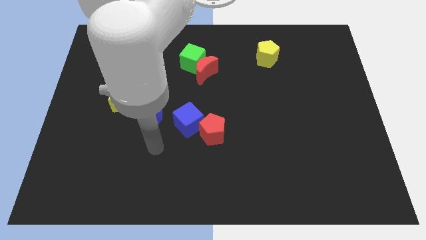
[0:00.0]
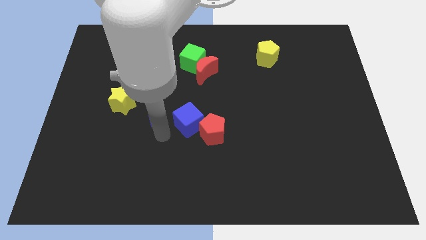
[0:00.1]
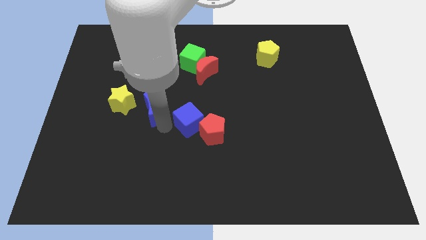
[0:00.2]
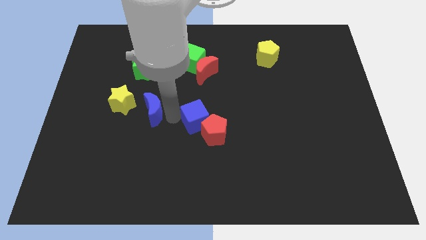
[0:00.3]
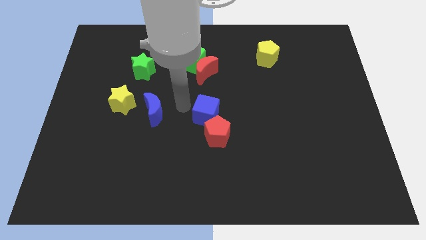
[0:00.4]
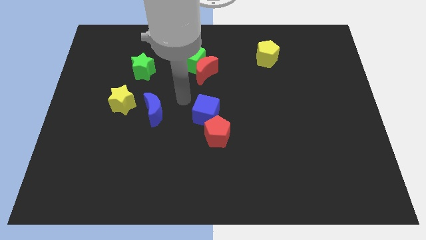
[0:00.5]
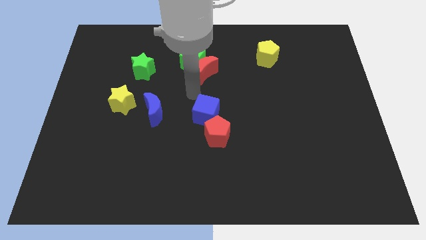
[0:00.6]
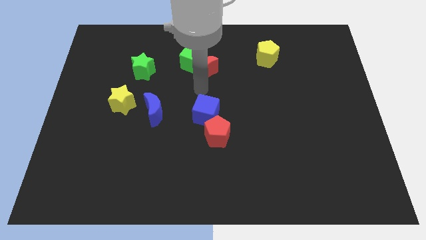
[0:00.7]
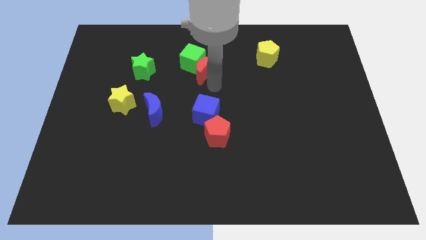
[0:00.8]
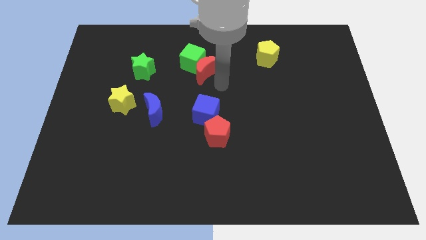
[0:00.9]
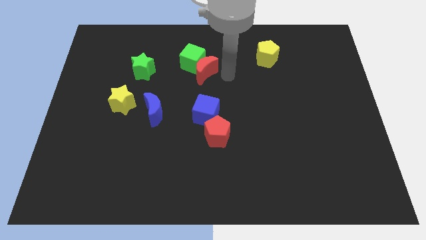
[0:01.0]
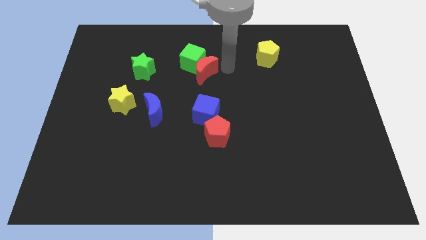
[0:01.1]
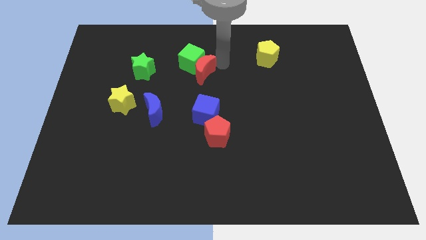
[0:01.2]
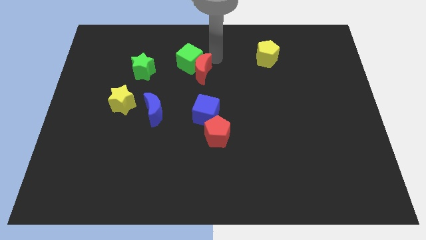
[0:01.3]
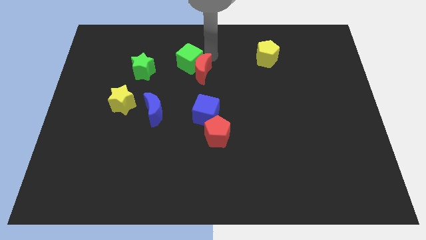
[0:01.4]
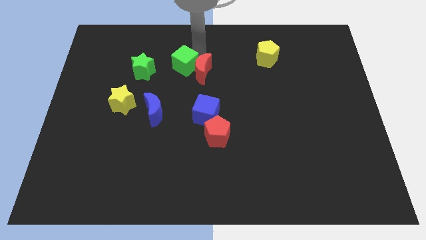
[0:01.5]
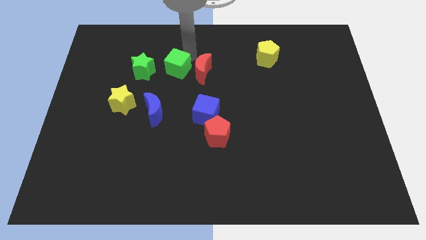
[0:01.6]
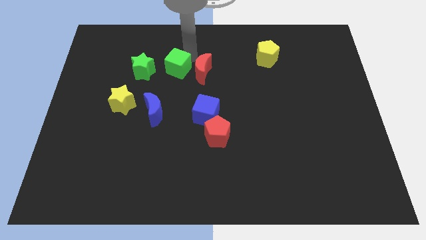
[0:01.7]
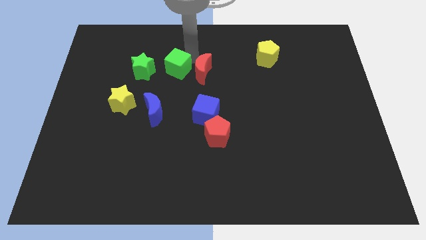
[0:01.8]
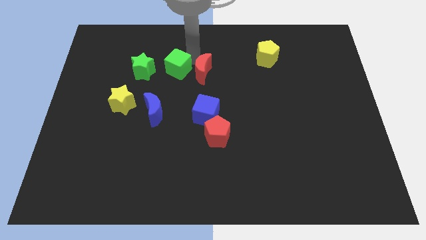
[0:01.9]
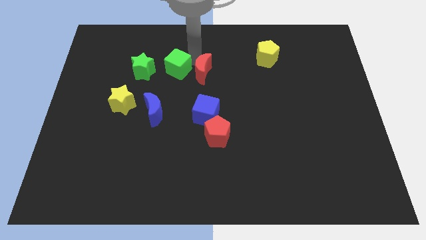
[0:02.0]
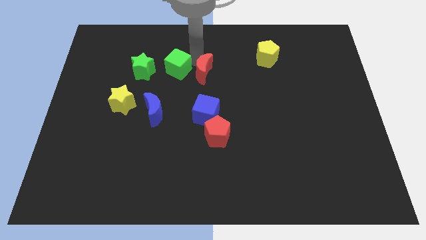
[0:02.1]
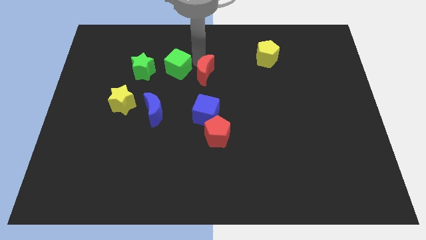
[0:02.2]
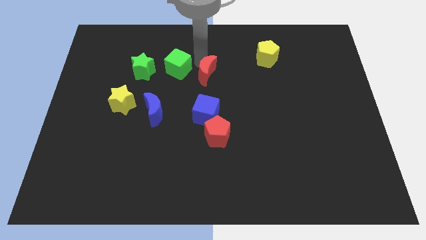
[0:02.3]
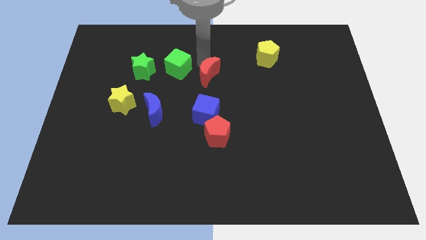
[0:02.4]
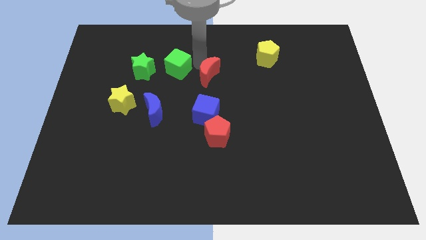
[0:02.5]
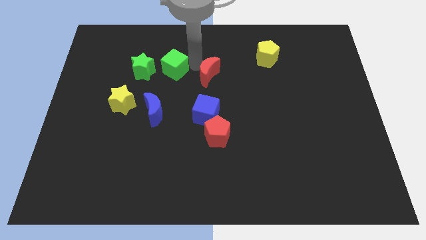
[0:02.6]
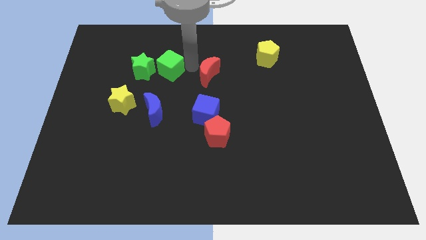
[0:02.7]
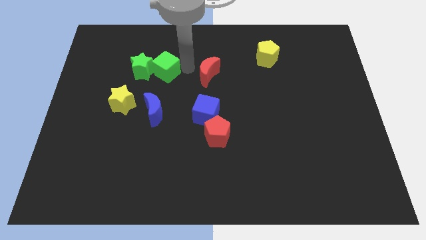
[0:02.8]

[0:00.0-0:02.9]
move the red moon away from the green cube

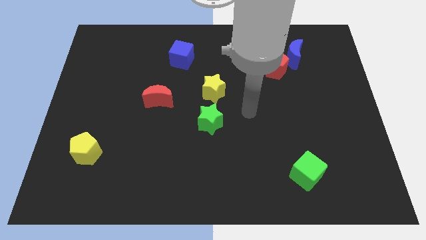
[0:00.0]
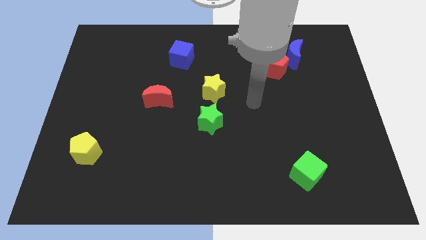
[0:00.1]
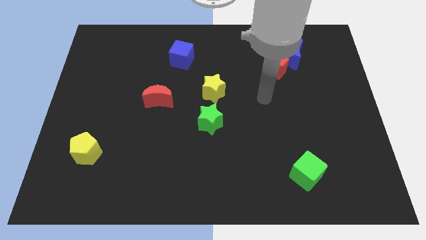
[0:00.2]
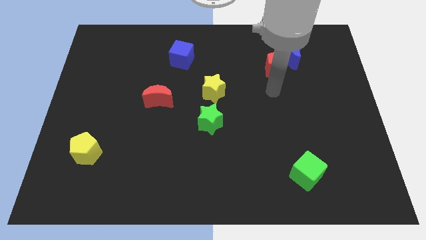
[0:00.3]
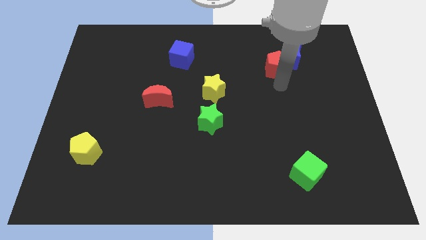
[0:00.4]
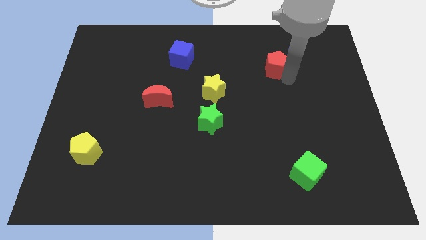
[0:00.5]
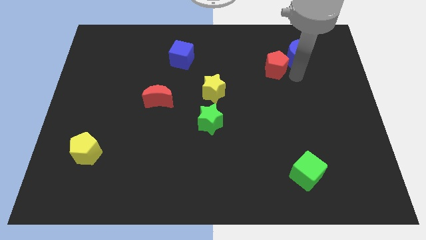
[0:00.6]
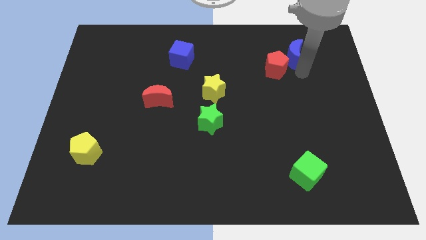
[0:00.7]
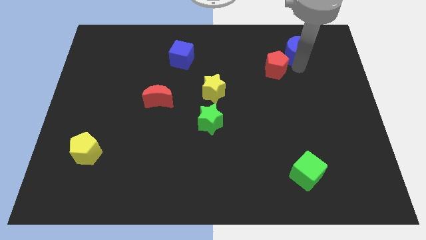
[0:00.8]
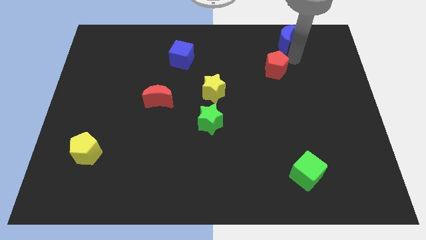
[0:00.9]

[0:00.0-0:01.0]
move the red pentagon away from the blue moon

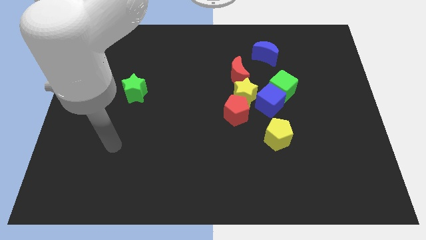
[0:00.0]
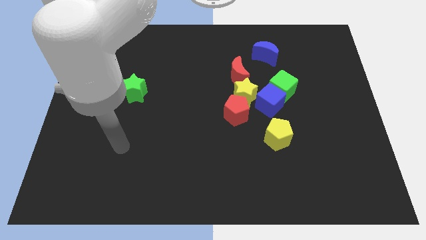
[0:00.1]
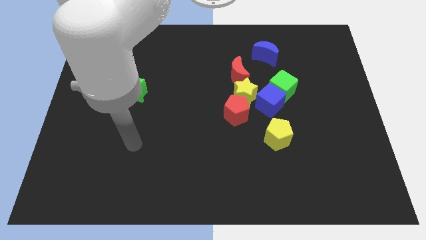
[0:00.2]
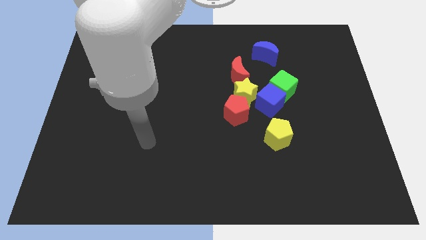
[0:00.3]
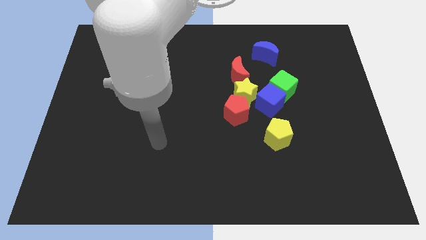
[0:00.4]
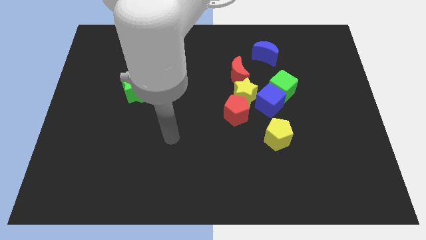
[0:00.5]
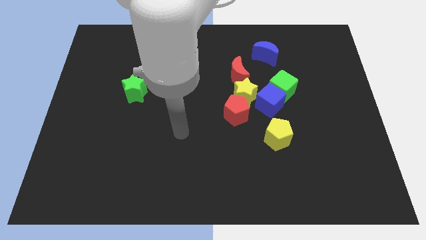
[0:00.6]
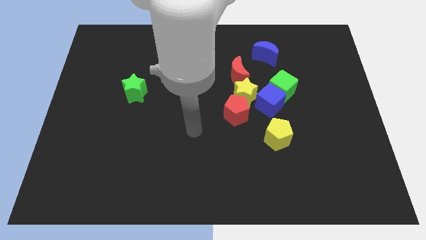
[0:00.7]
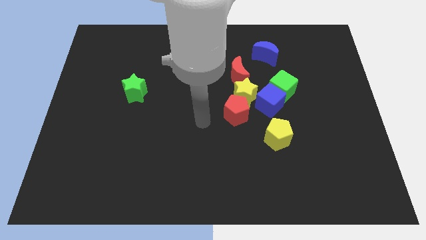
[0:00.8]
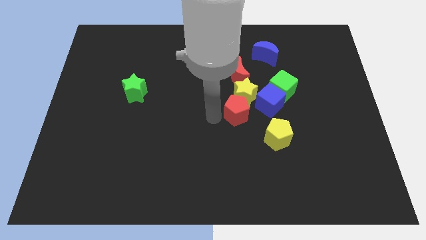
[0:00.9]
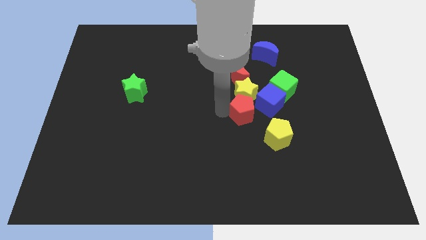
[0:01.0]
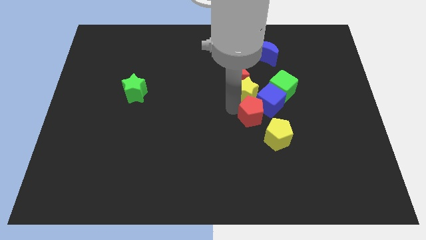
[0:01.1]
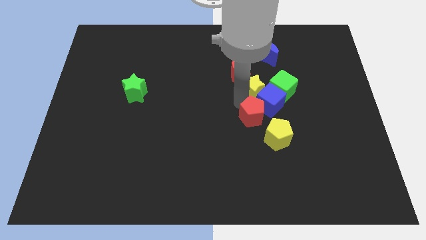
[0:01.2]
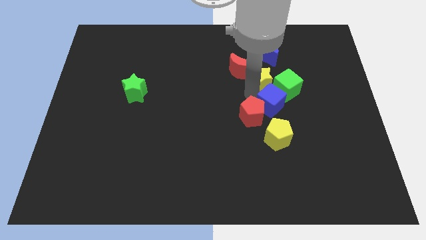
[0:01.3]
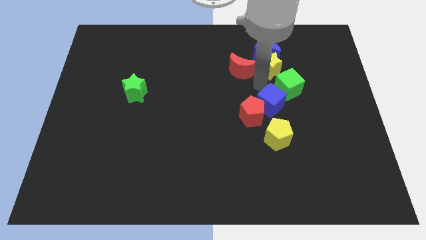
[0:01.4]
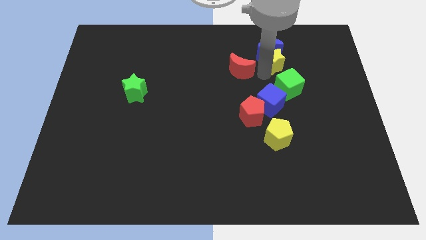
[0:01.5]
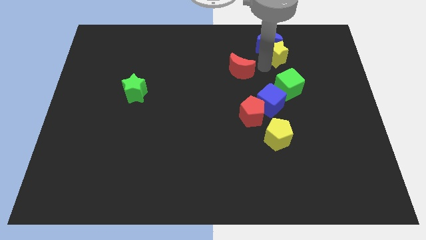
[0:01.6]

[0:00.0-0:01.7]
separate the red moon from the yellow star

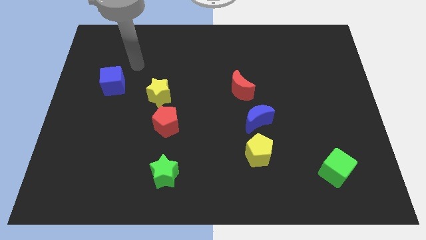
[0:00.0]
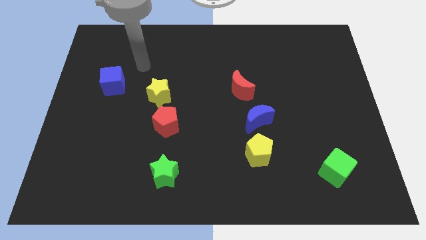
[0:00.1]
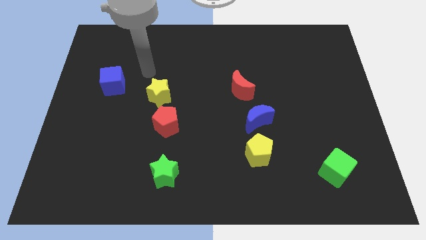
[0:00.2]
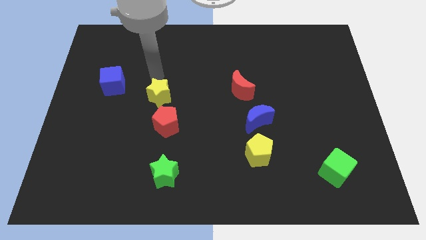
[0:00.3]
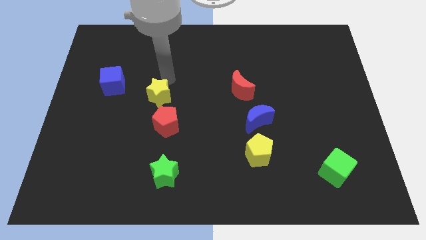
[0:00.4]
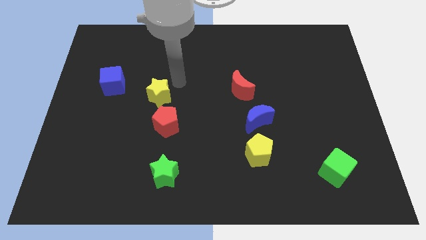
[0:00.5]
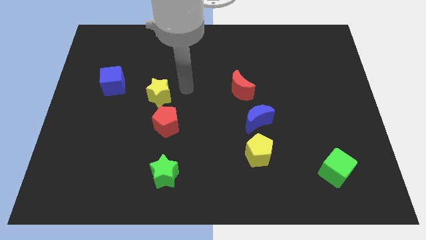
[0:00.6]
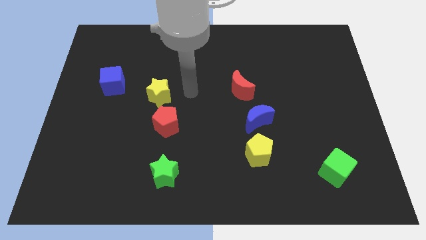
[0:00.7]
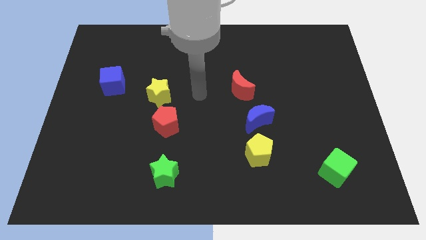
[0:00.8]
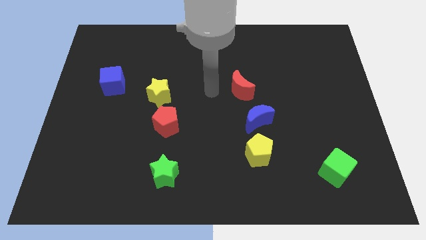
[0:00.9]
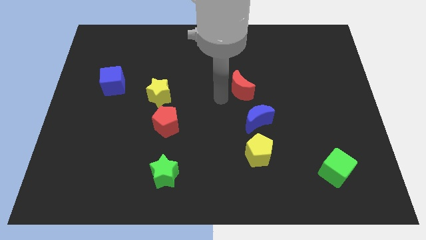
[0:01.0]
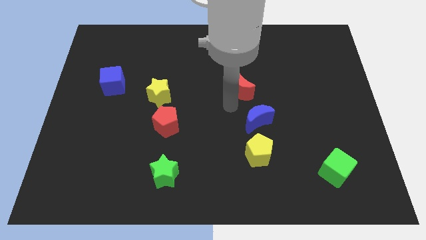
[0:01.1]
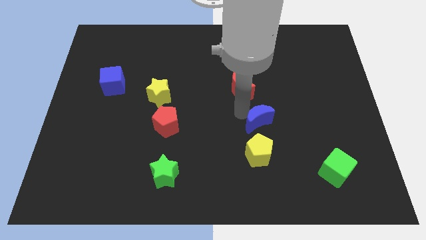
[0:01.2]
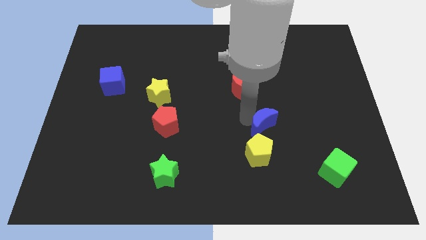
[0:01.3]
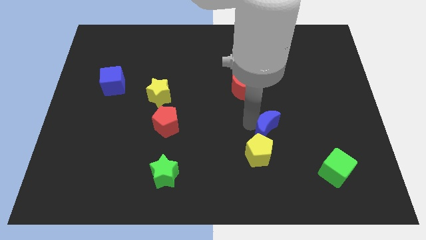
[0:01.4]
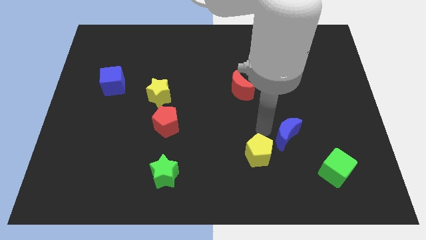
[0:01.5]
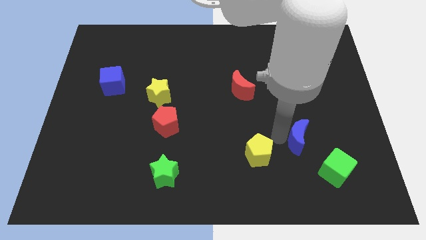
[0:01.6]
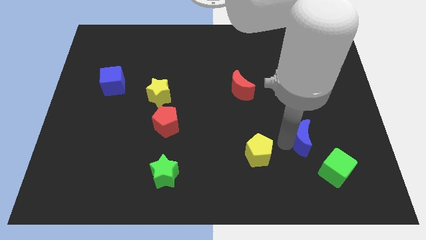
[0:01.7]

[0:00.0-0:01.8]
pull the yellow pentagon apart from the blue moon

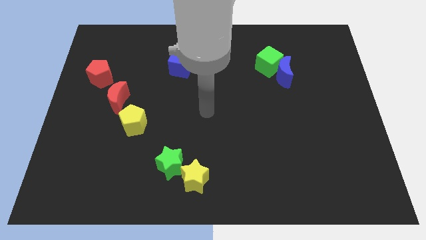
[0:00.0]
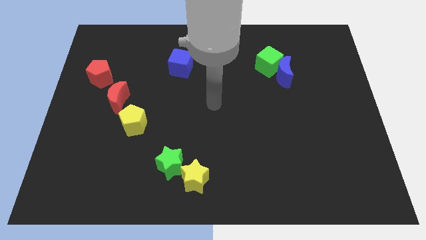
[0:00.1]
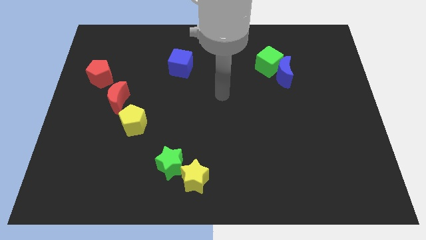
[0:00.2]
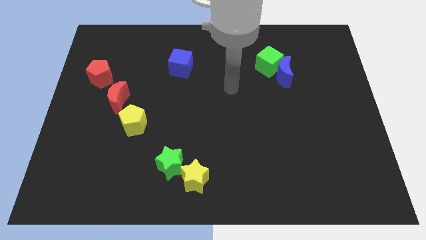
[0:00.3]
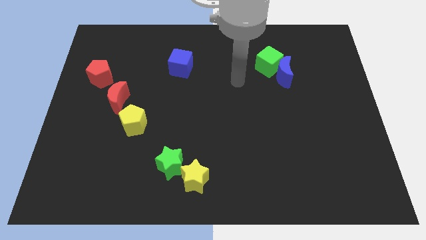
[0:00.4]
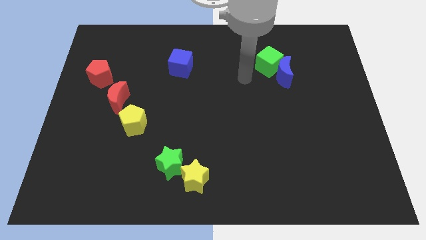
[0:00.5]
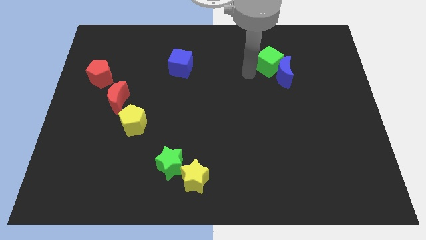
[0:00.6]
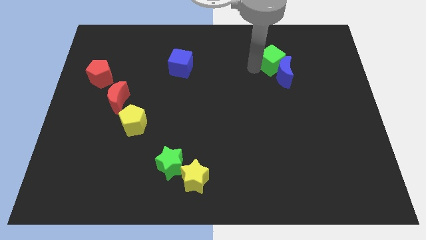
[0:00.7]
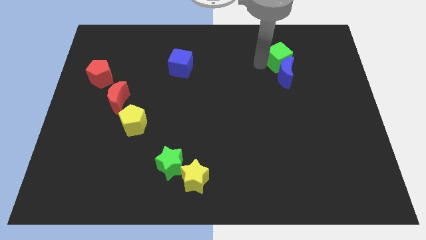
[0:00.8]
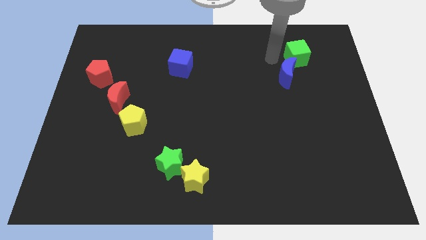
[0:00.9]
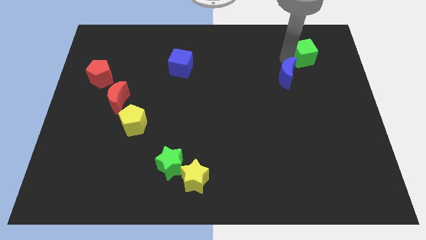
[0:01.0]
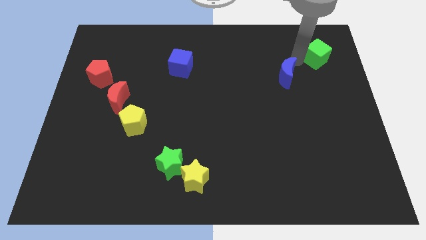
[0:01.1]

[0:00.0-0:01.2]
pull the blue moon apart from the green cube

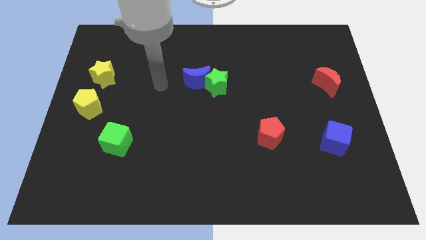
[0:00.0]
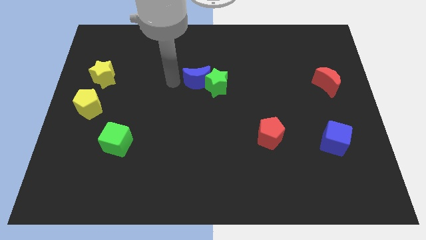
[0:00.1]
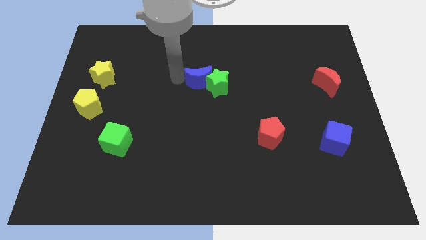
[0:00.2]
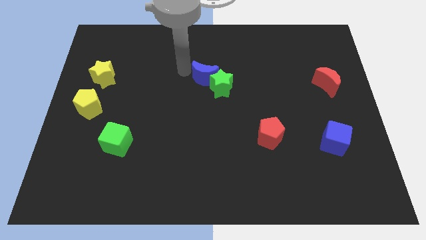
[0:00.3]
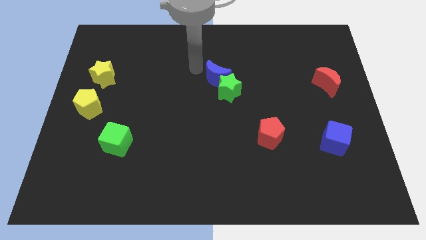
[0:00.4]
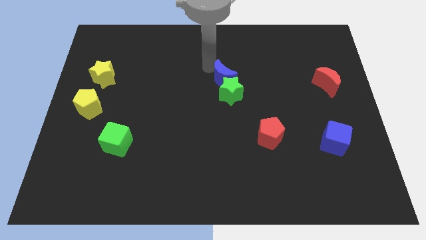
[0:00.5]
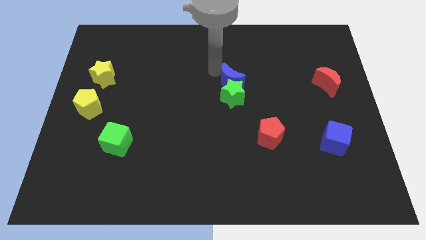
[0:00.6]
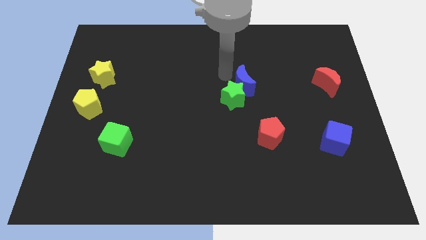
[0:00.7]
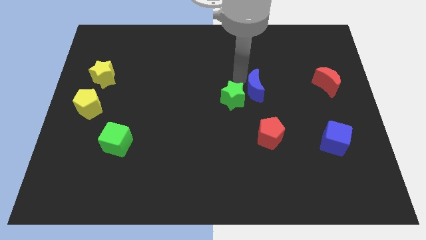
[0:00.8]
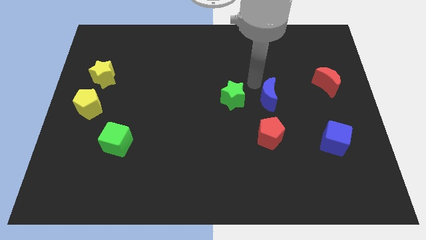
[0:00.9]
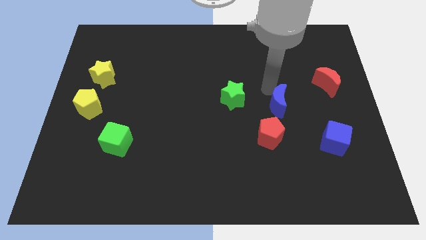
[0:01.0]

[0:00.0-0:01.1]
pull the blue moon apart from the green star
